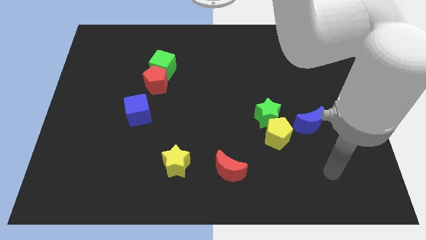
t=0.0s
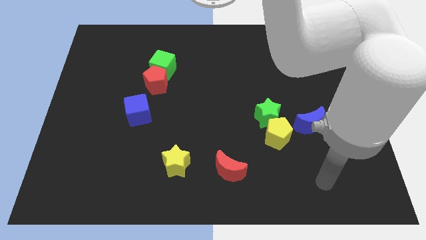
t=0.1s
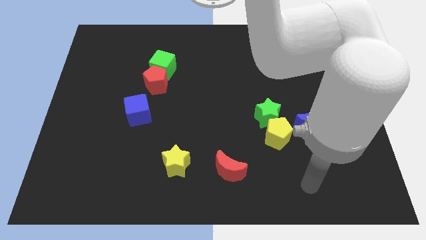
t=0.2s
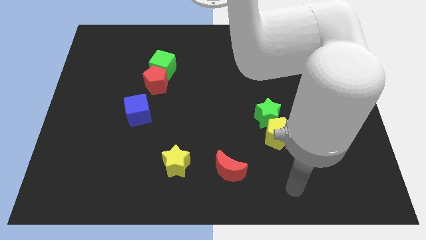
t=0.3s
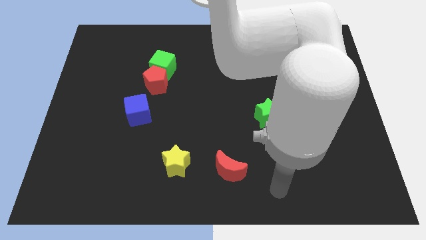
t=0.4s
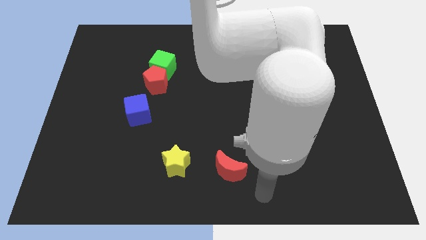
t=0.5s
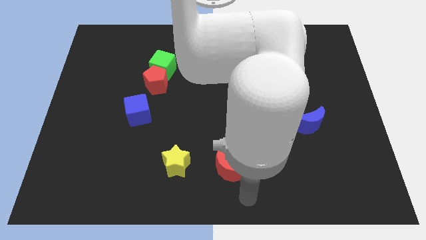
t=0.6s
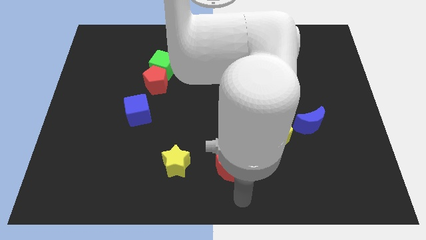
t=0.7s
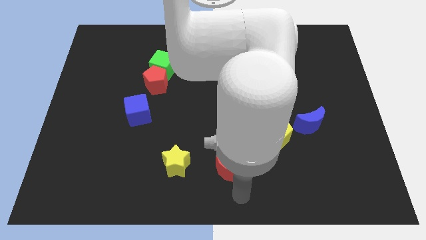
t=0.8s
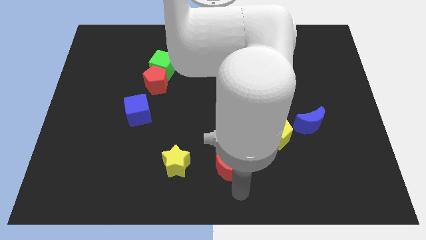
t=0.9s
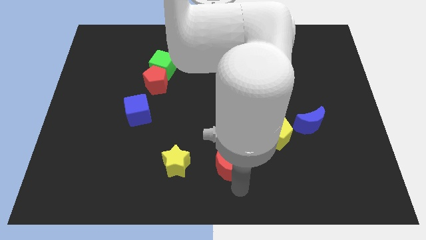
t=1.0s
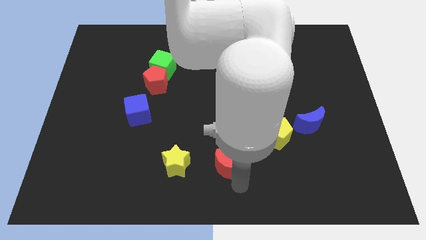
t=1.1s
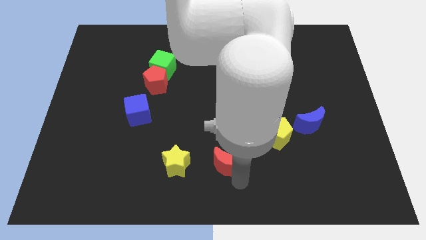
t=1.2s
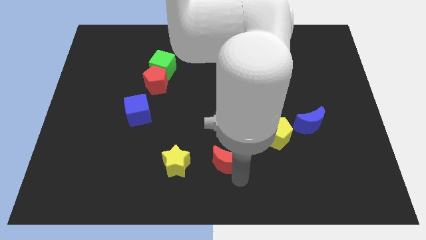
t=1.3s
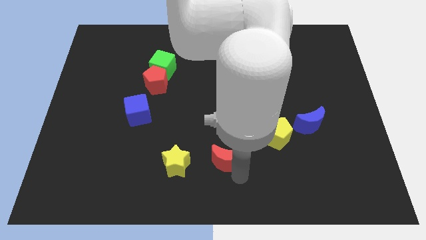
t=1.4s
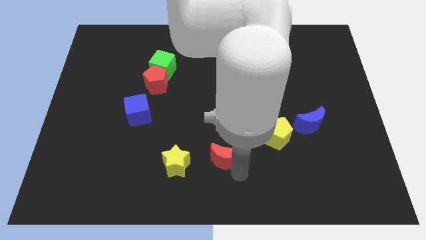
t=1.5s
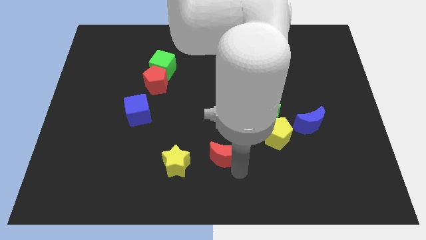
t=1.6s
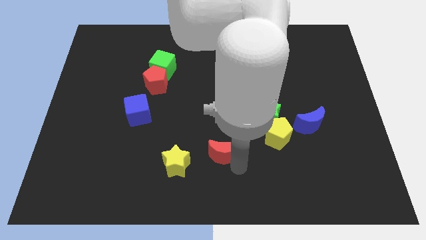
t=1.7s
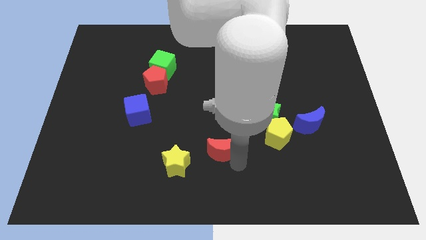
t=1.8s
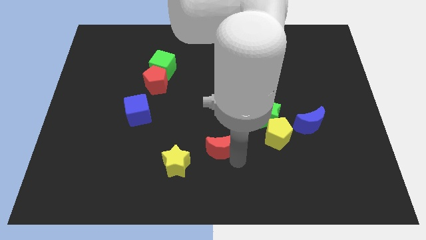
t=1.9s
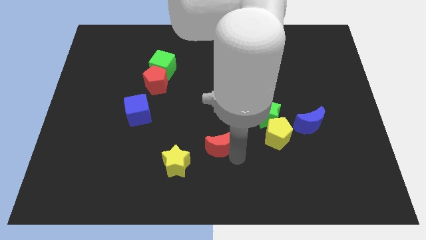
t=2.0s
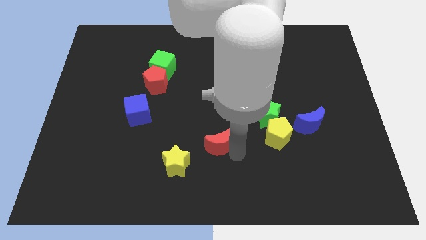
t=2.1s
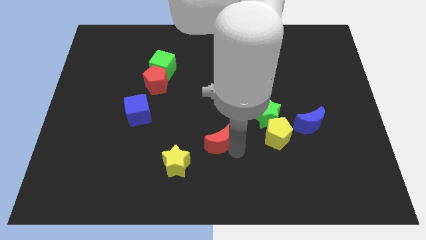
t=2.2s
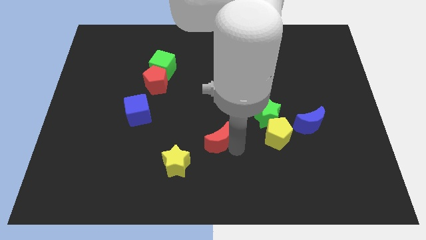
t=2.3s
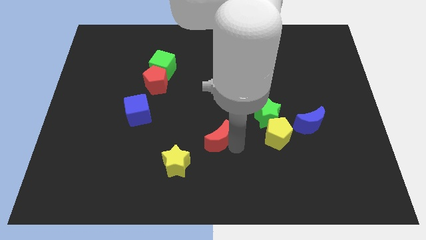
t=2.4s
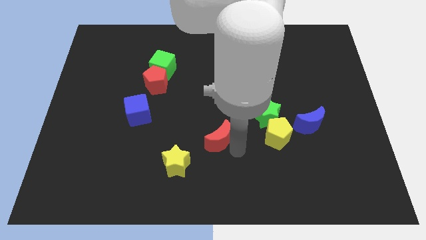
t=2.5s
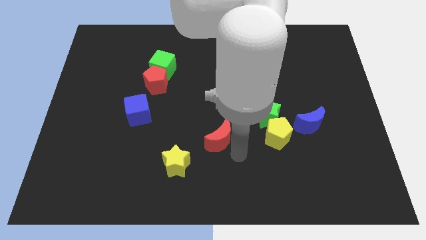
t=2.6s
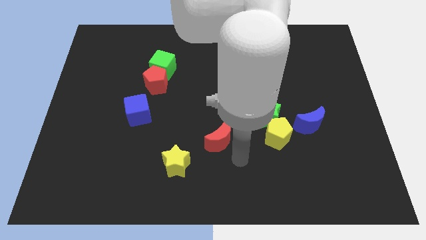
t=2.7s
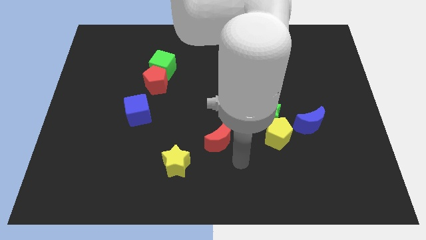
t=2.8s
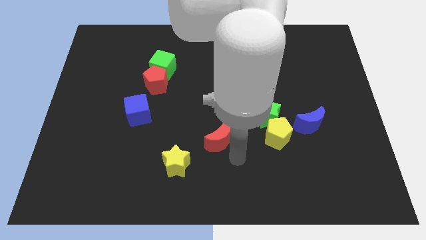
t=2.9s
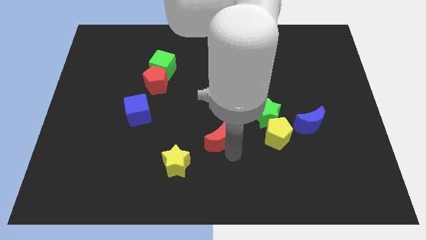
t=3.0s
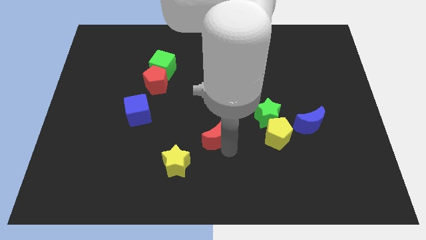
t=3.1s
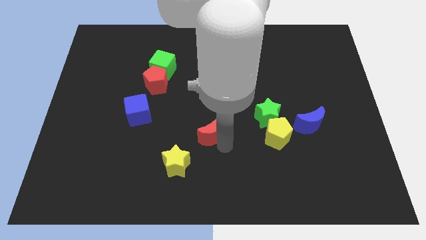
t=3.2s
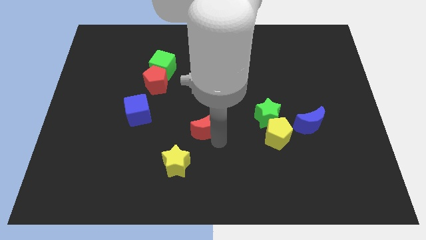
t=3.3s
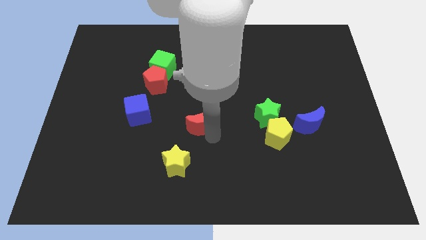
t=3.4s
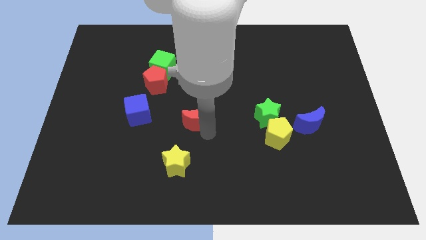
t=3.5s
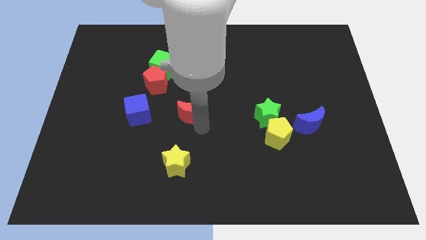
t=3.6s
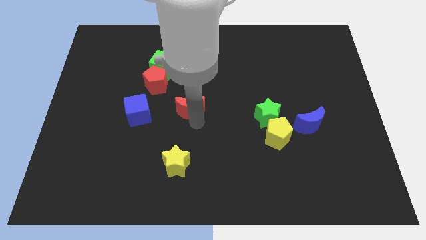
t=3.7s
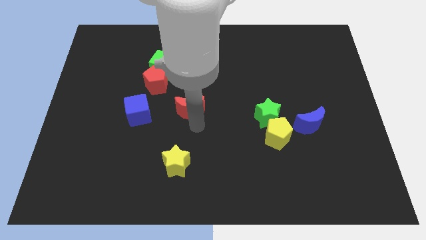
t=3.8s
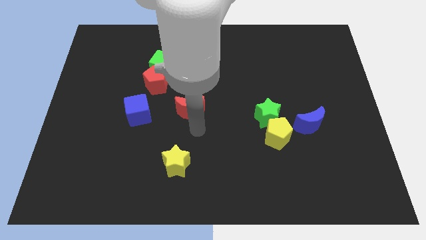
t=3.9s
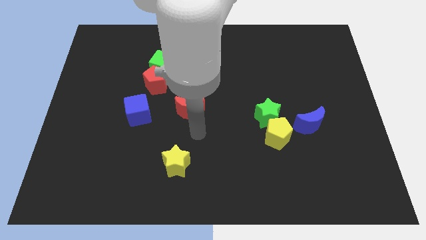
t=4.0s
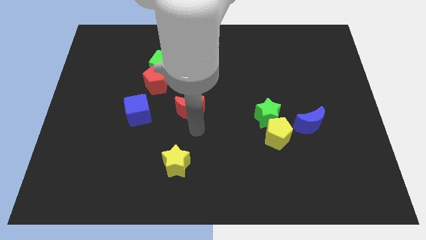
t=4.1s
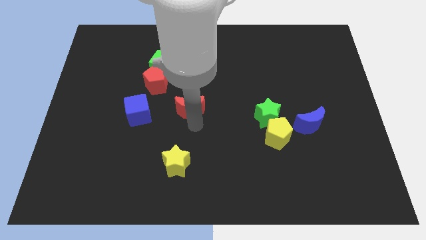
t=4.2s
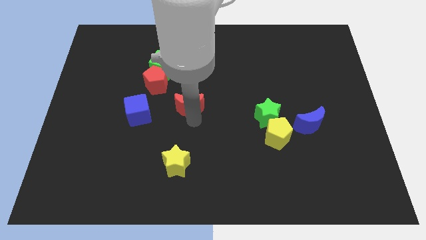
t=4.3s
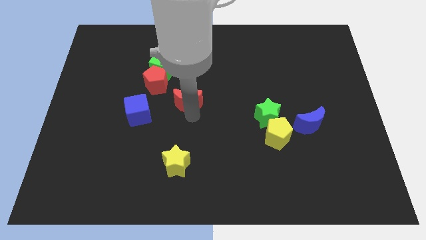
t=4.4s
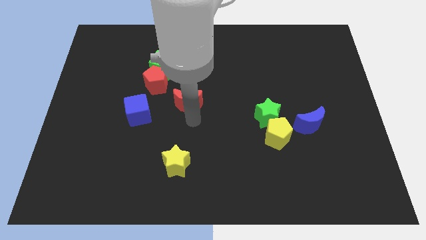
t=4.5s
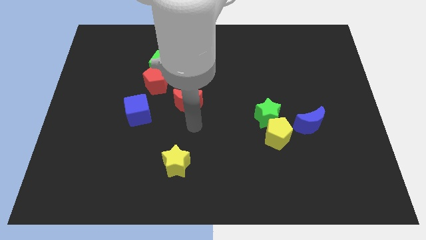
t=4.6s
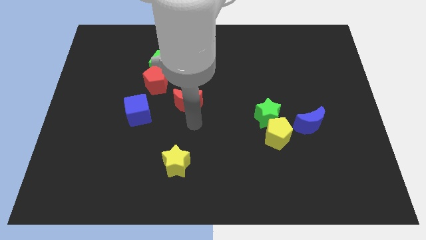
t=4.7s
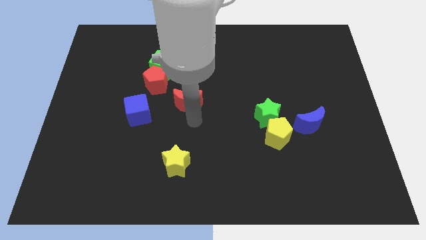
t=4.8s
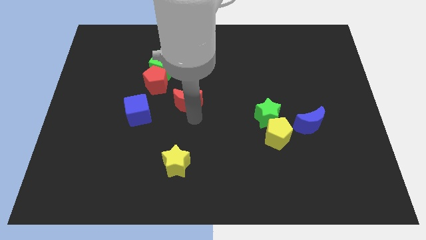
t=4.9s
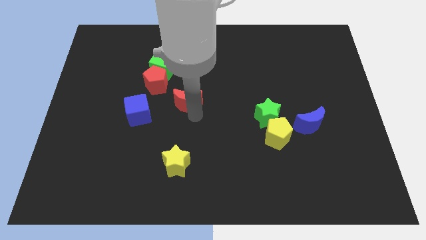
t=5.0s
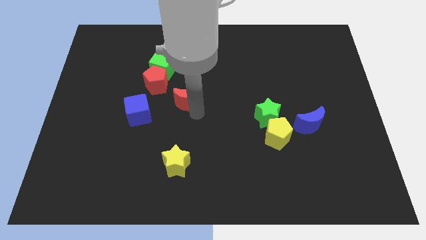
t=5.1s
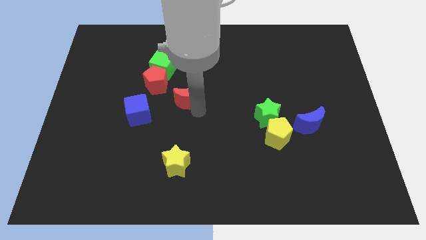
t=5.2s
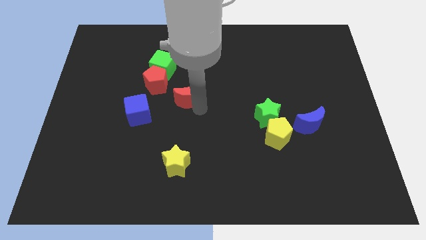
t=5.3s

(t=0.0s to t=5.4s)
put the red moon to the bottom right side of the green cube

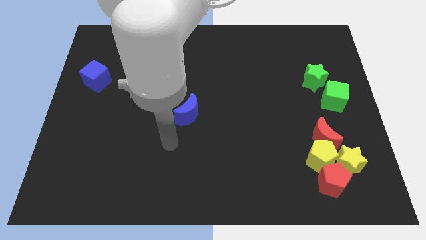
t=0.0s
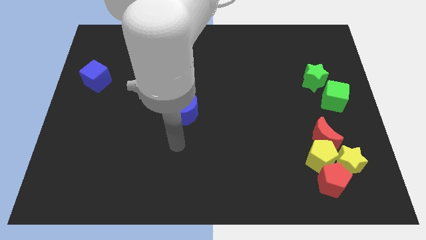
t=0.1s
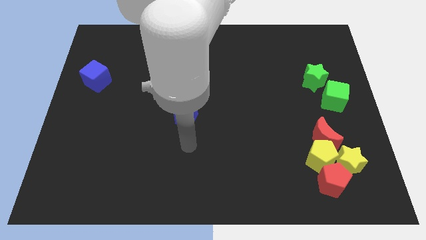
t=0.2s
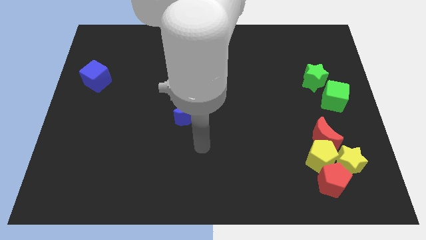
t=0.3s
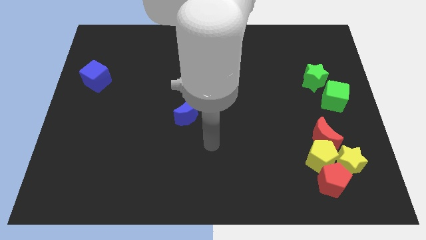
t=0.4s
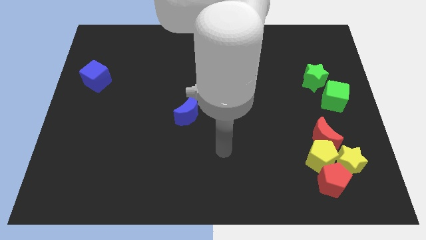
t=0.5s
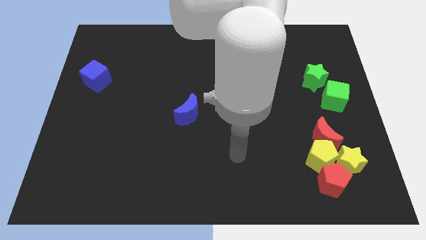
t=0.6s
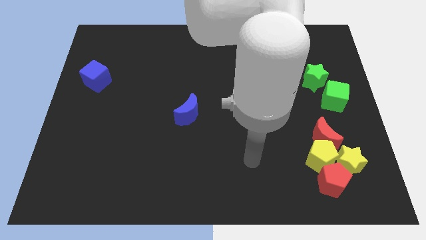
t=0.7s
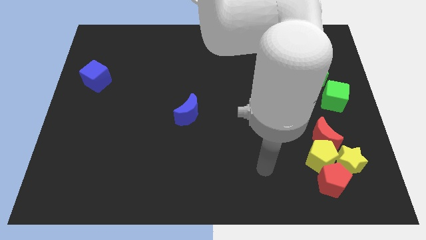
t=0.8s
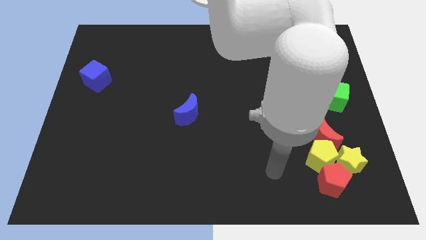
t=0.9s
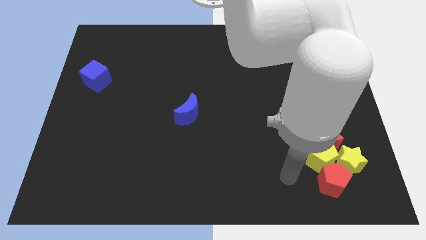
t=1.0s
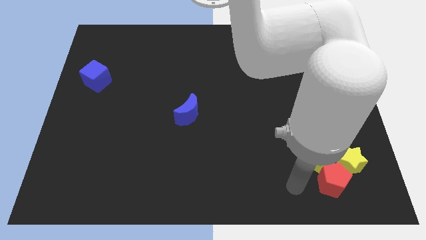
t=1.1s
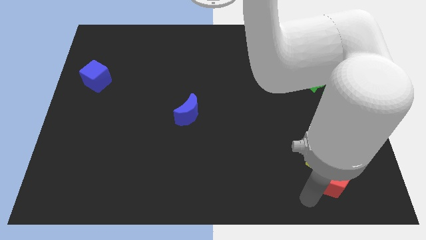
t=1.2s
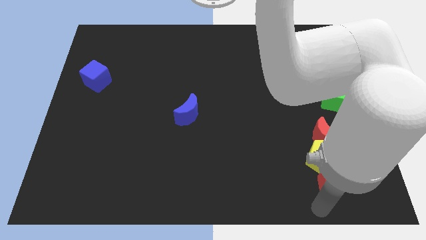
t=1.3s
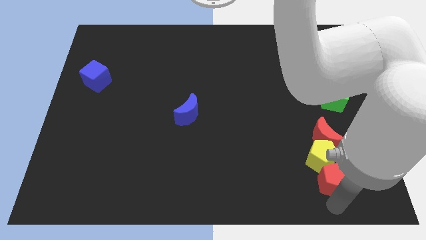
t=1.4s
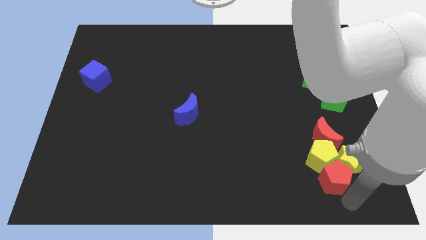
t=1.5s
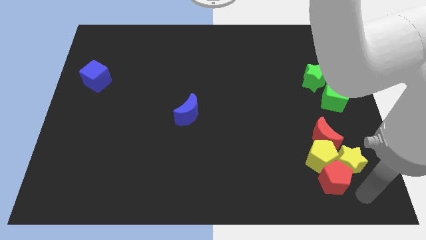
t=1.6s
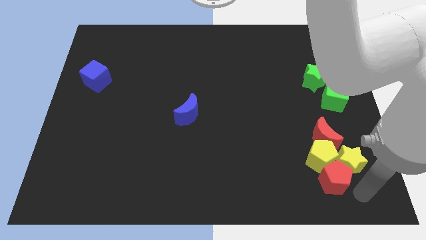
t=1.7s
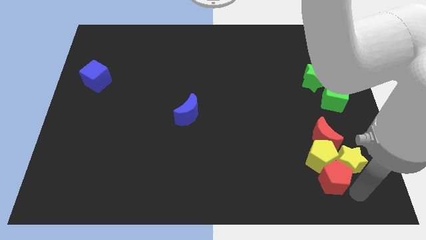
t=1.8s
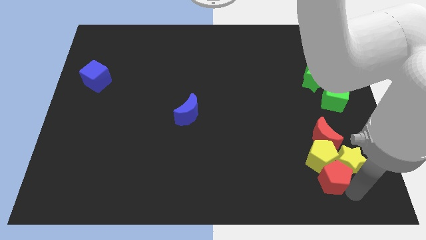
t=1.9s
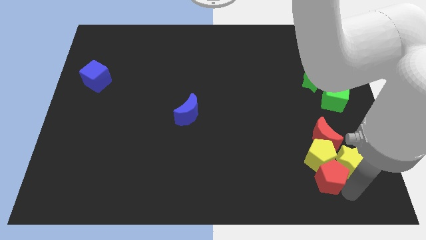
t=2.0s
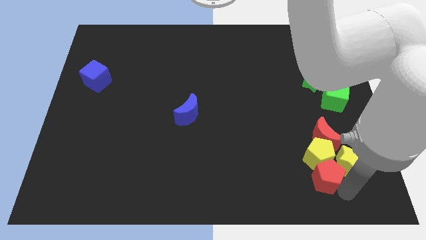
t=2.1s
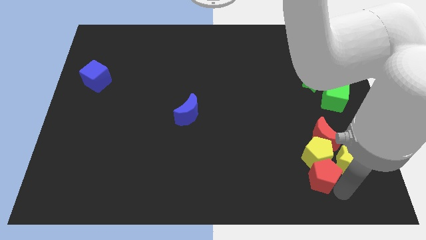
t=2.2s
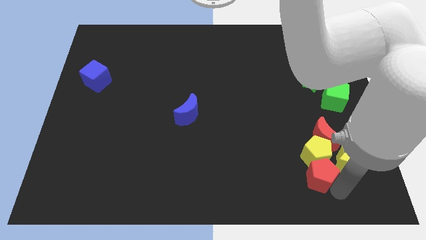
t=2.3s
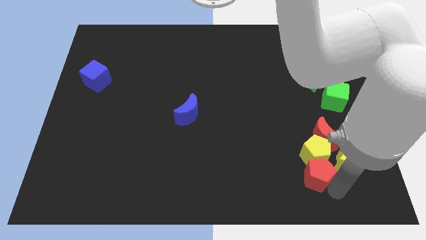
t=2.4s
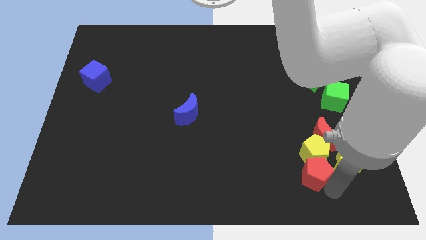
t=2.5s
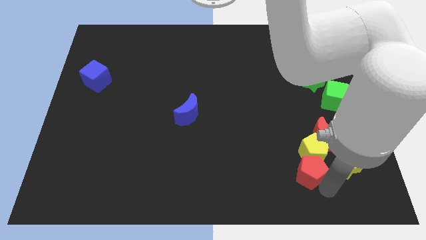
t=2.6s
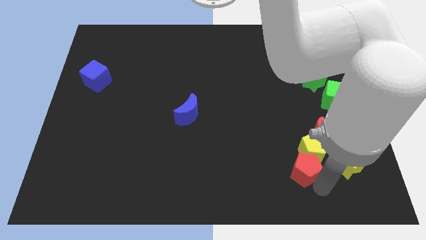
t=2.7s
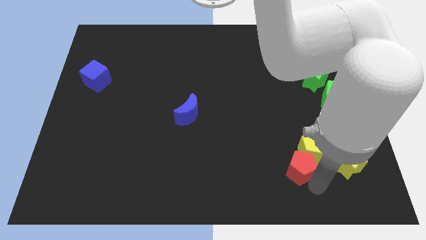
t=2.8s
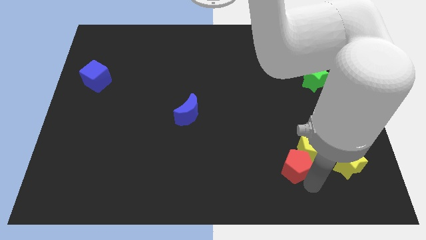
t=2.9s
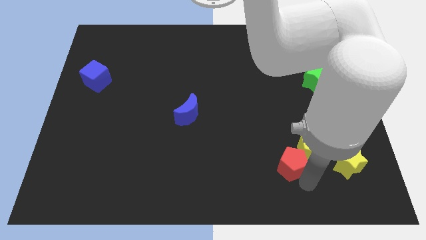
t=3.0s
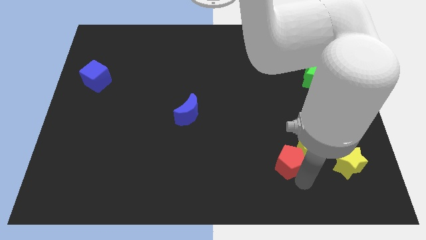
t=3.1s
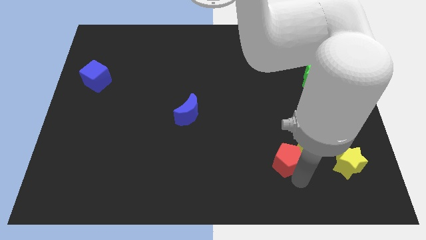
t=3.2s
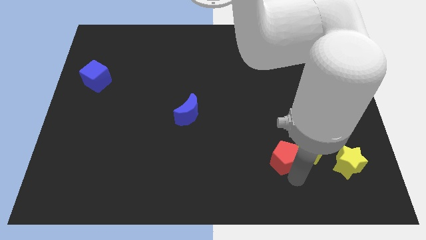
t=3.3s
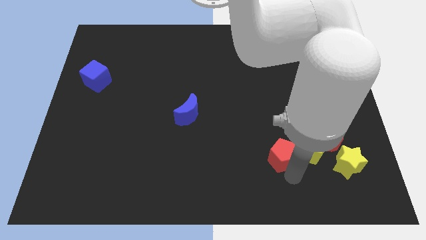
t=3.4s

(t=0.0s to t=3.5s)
push the red pentagon to the left side of the red moon
